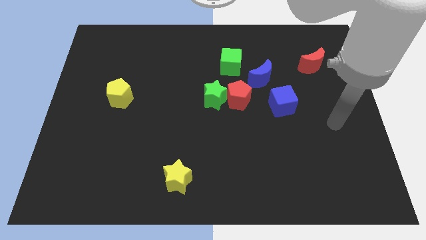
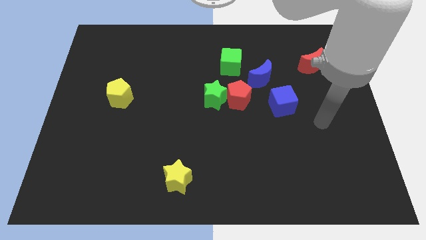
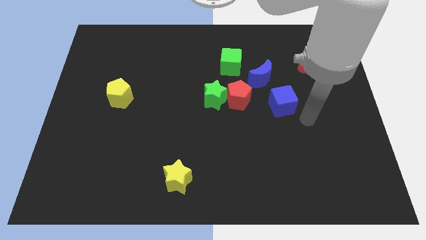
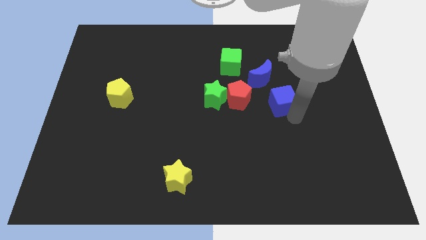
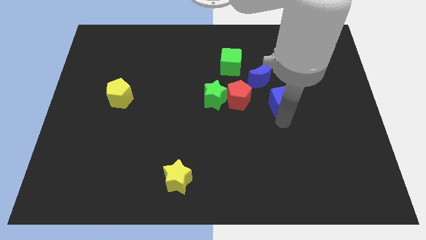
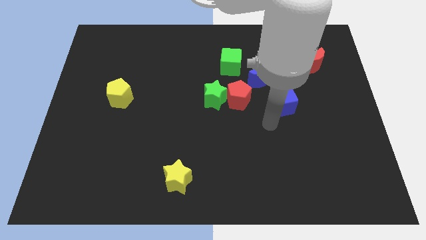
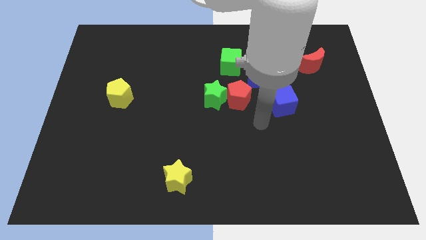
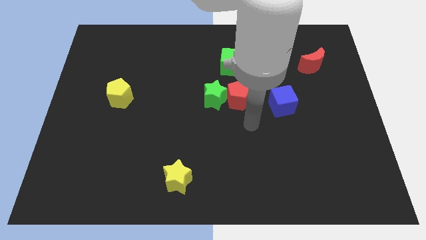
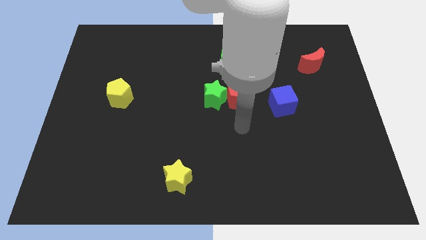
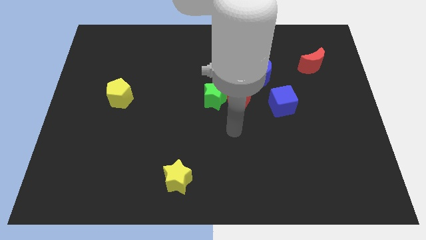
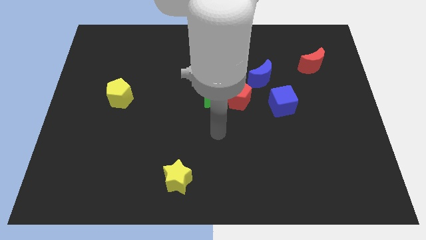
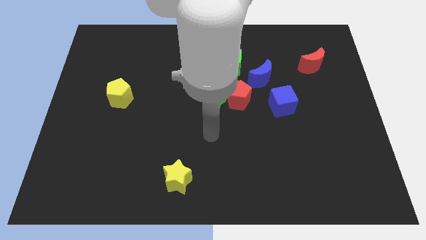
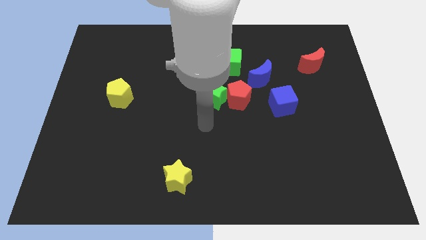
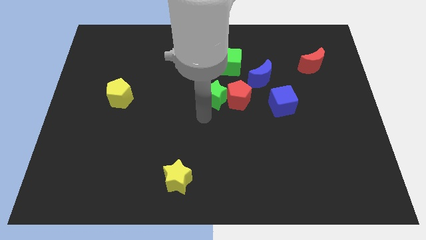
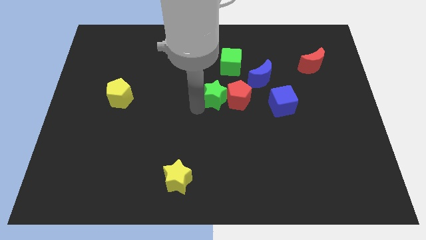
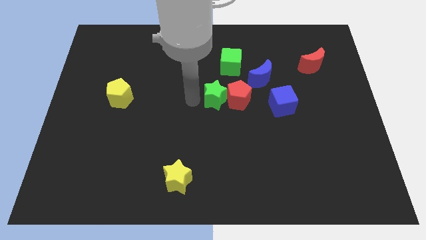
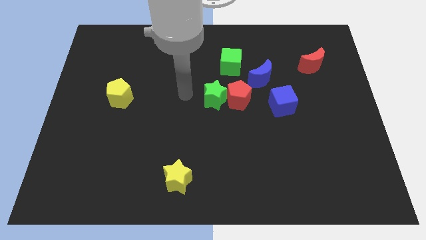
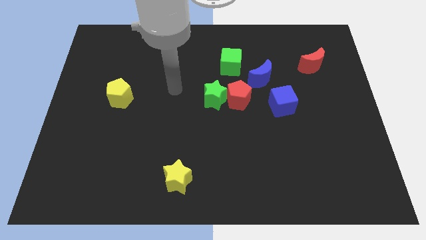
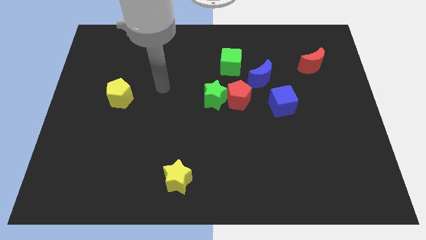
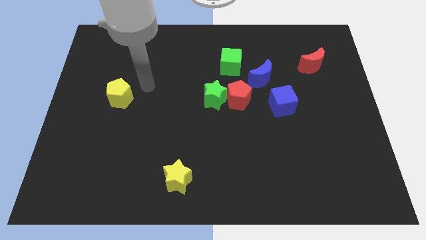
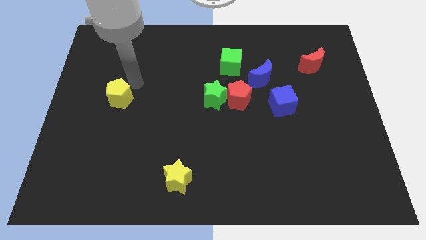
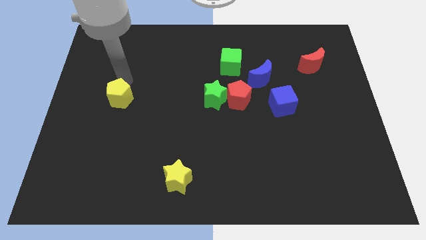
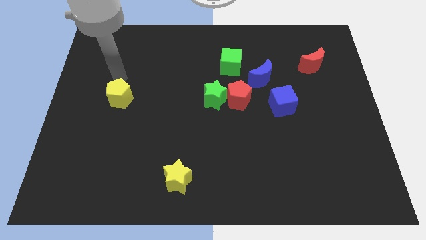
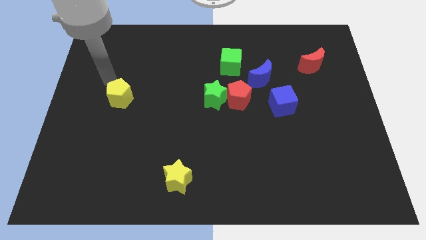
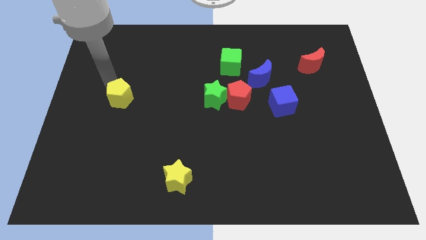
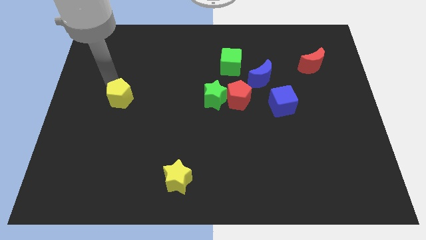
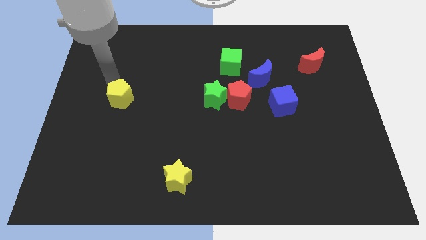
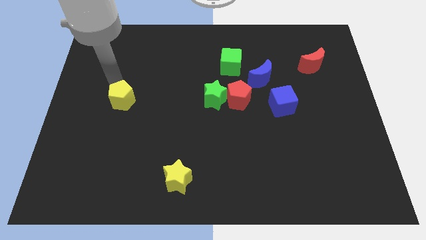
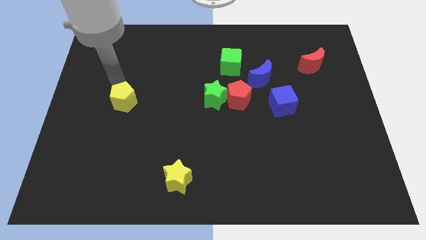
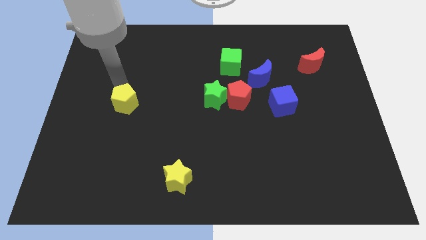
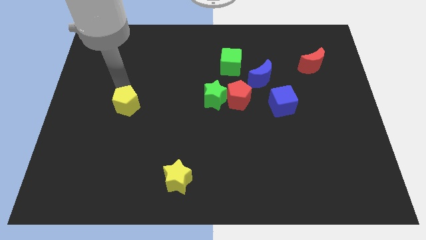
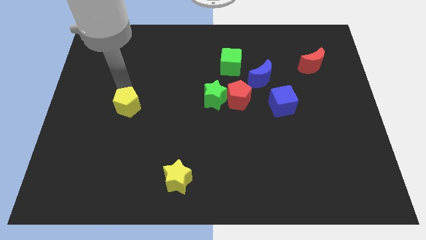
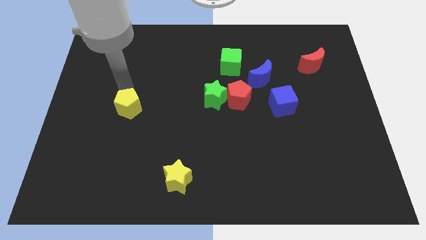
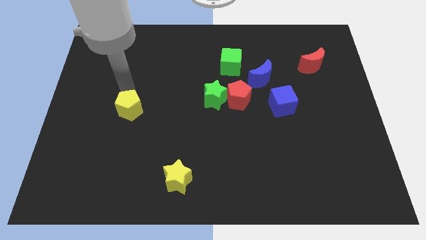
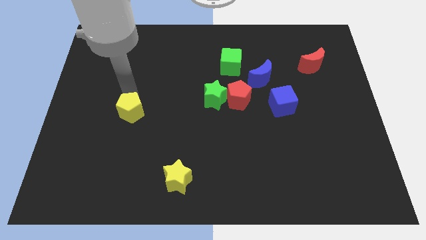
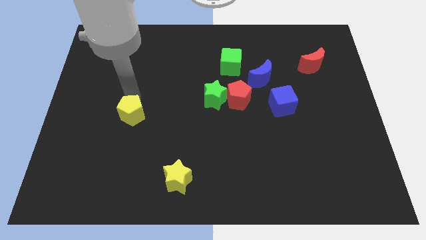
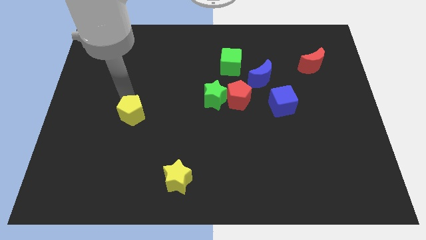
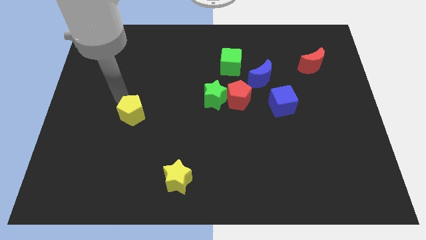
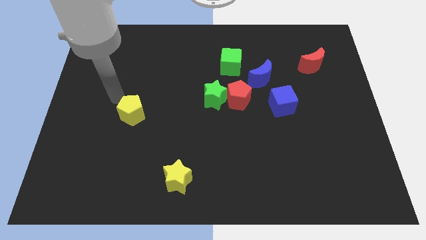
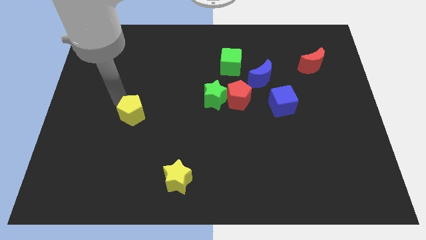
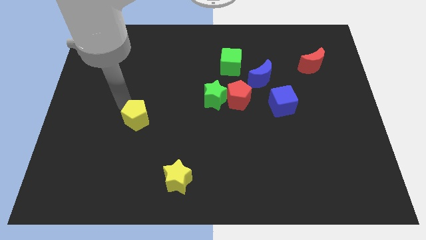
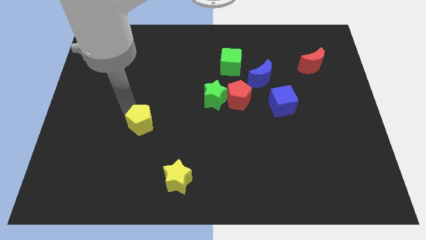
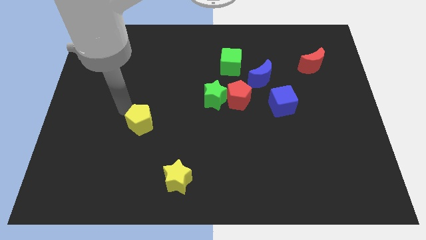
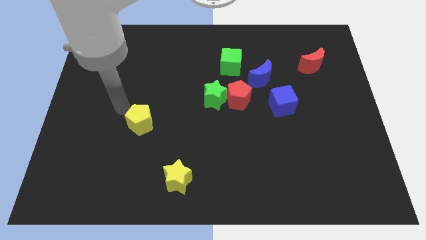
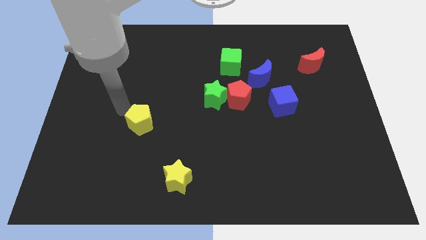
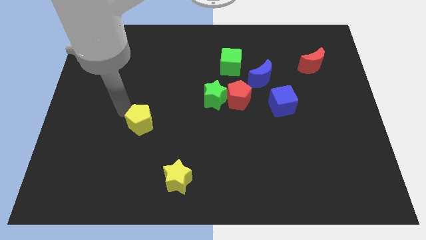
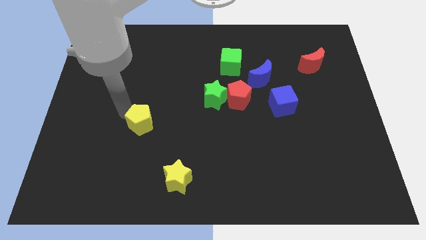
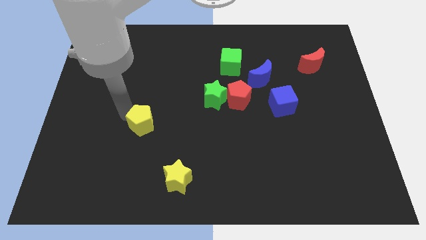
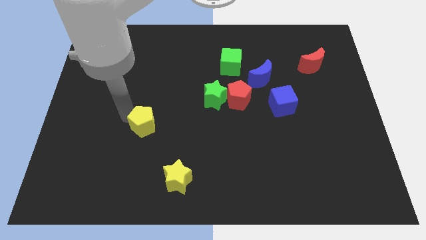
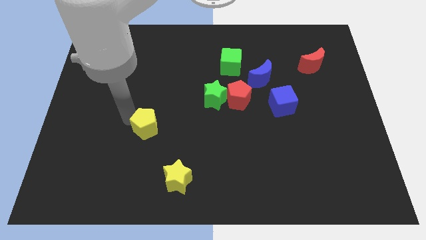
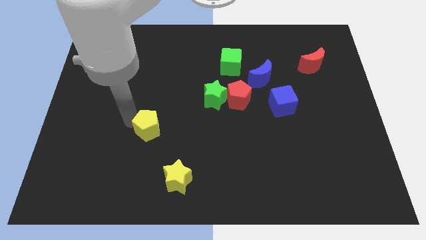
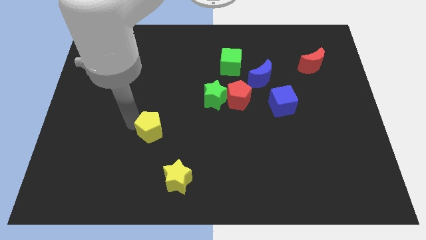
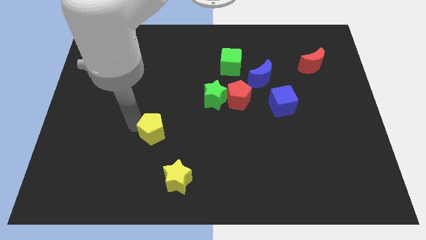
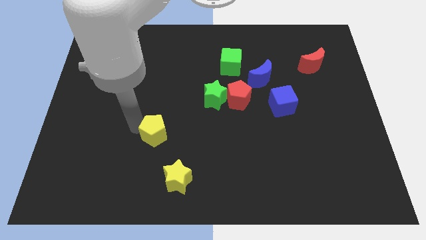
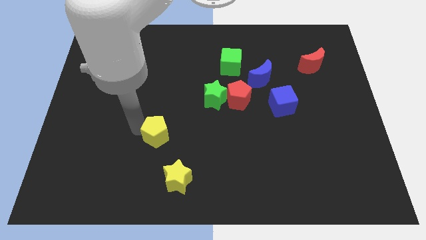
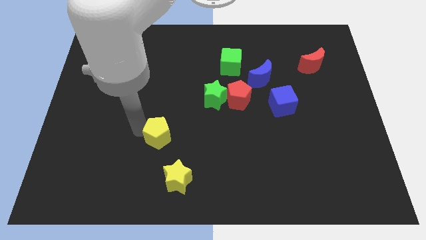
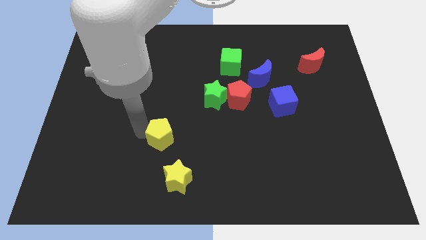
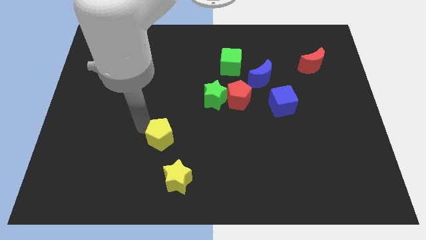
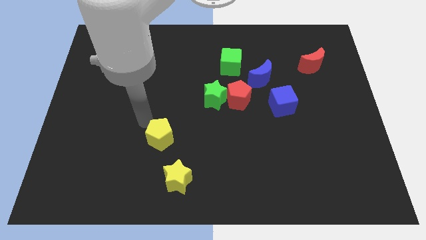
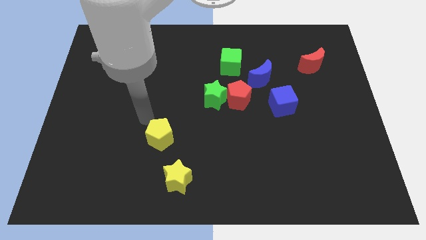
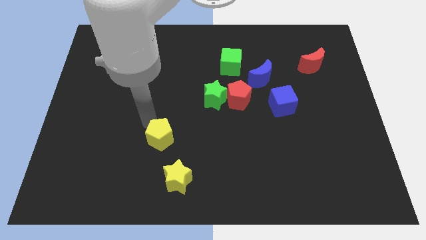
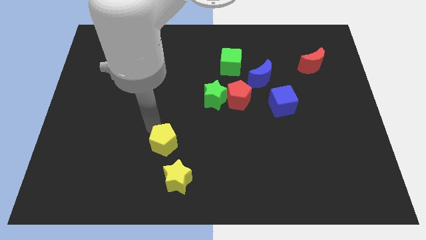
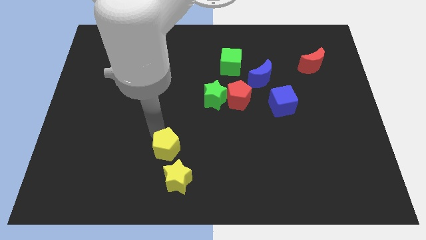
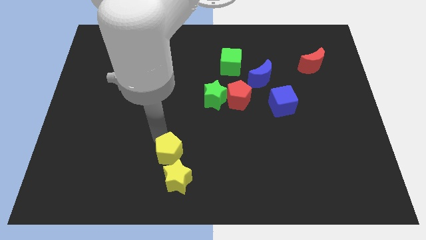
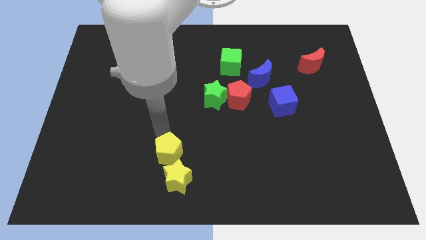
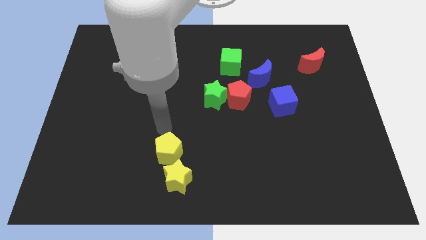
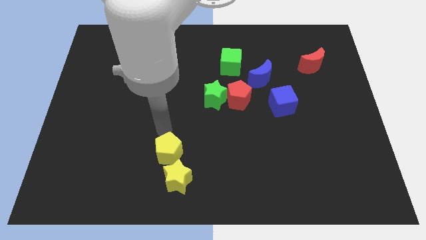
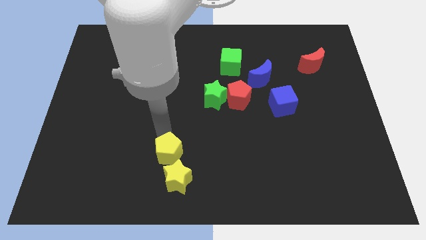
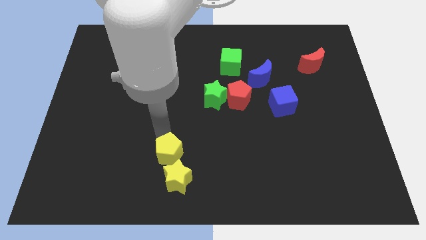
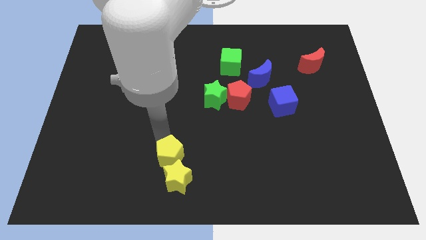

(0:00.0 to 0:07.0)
slide the yellow pentagon close to the yellow star
